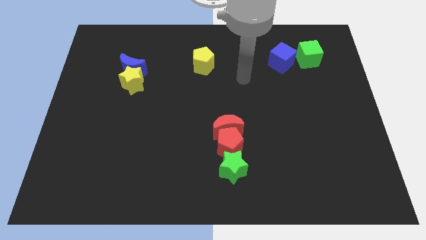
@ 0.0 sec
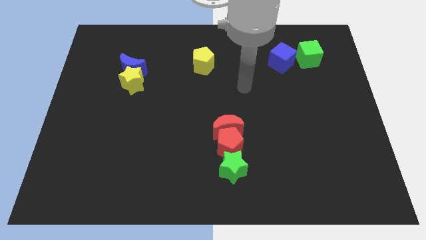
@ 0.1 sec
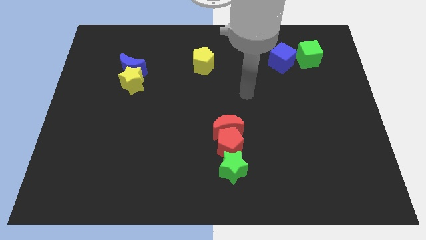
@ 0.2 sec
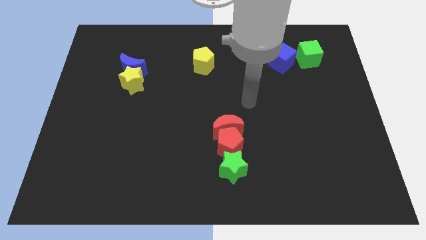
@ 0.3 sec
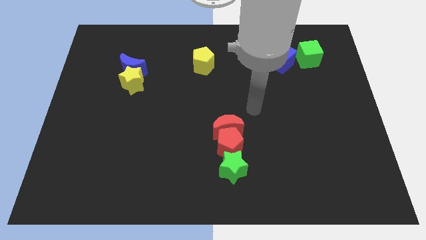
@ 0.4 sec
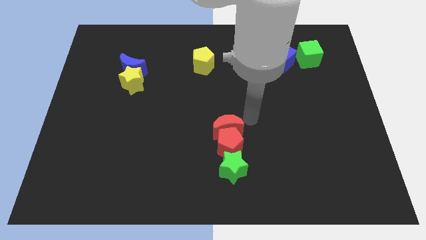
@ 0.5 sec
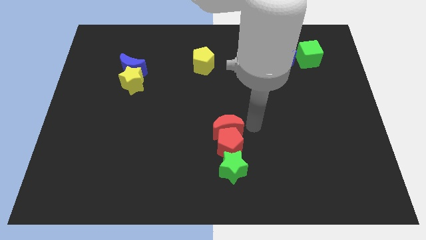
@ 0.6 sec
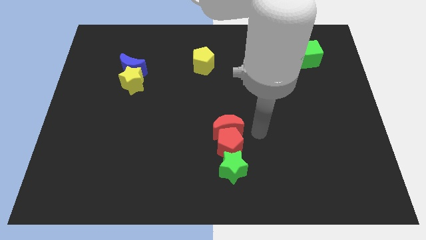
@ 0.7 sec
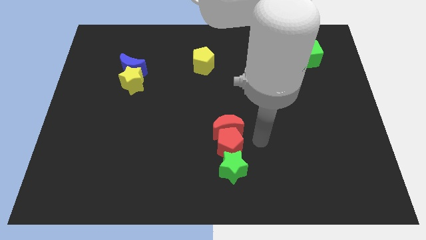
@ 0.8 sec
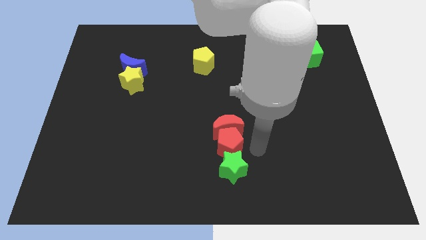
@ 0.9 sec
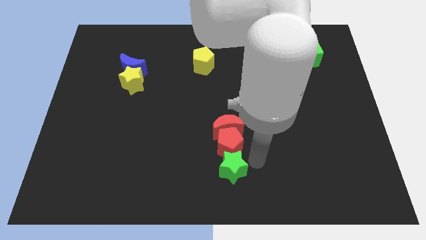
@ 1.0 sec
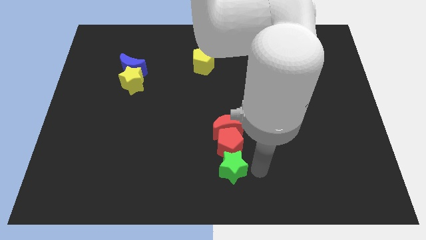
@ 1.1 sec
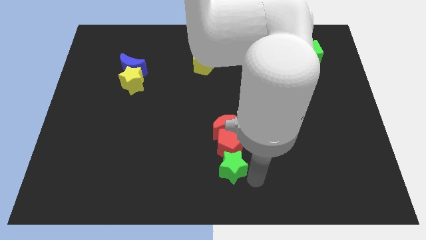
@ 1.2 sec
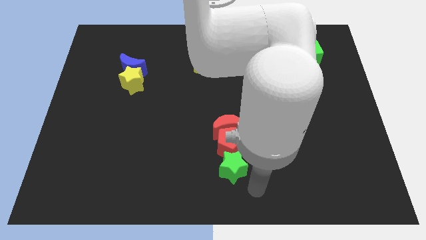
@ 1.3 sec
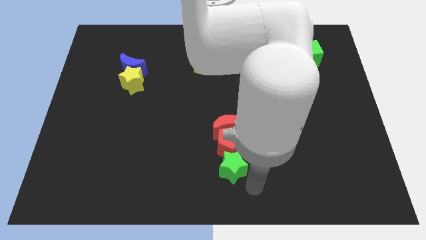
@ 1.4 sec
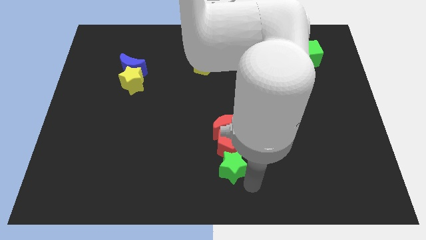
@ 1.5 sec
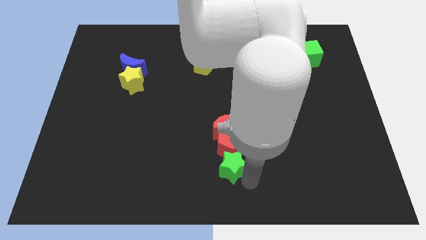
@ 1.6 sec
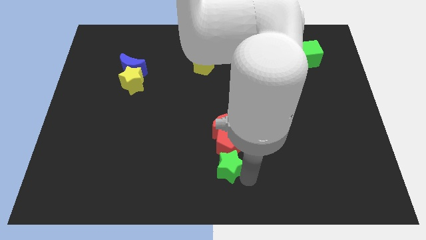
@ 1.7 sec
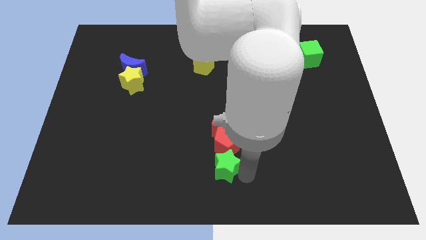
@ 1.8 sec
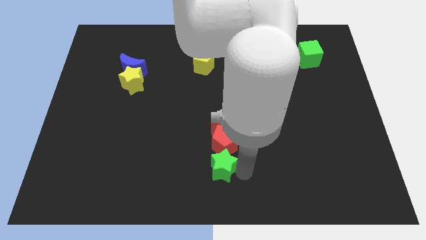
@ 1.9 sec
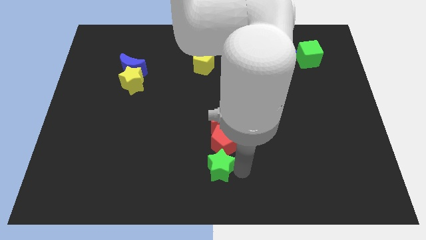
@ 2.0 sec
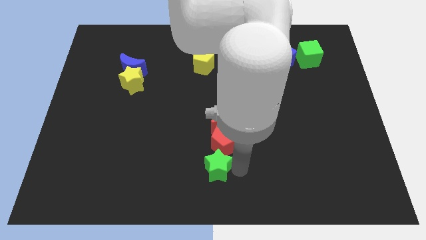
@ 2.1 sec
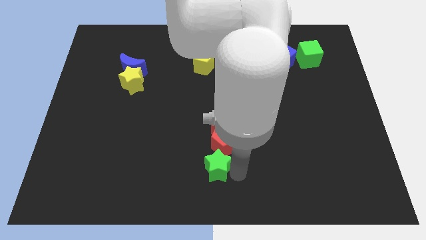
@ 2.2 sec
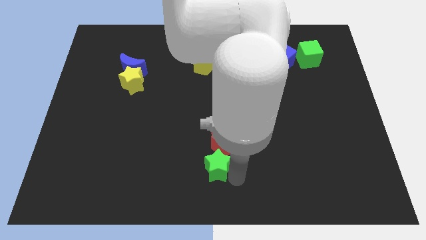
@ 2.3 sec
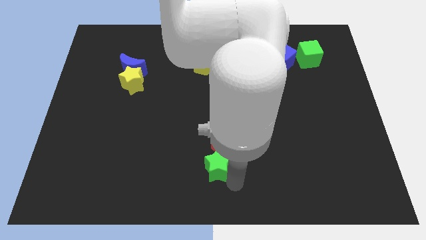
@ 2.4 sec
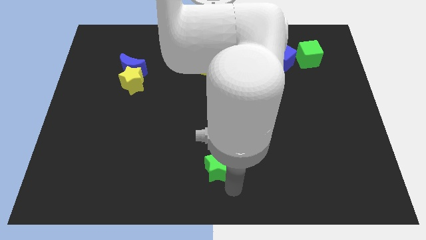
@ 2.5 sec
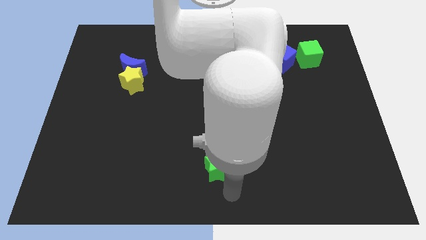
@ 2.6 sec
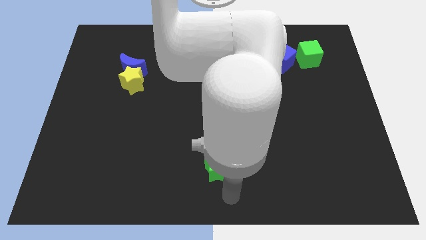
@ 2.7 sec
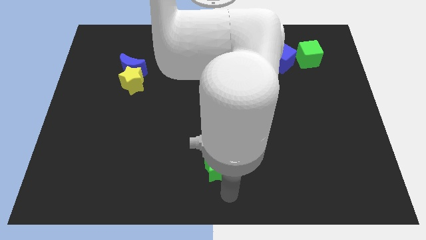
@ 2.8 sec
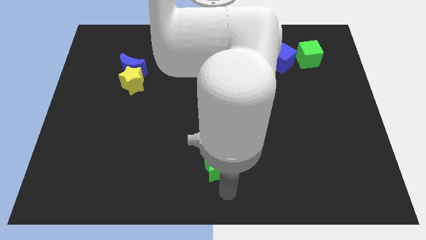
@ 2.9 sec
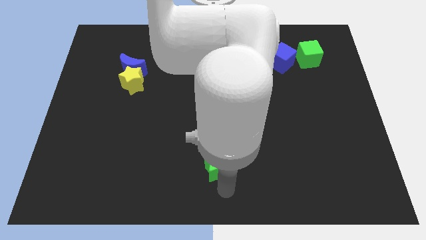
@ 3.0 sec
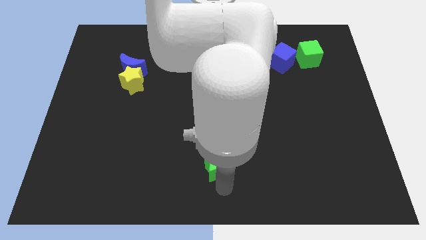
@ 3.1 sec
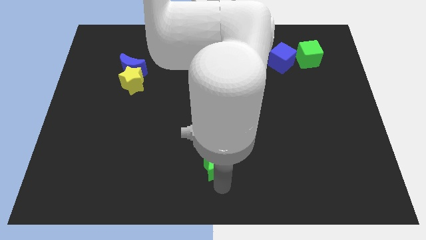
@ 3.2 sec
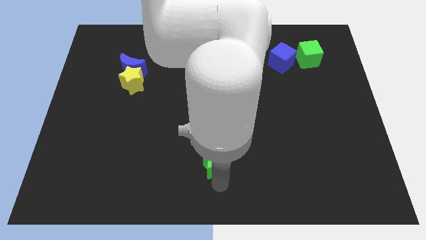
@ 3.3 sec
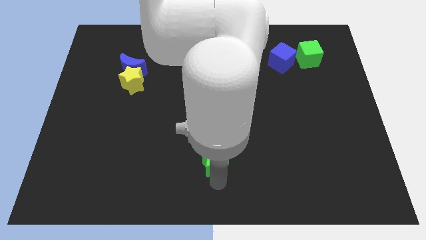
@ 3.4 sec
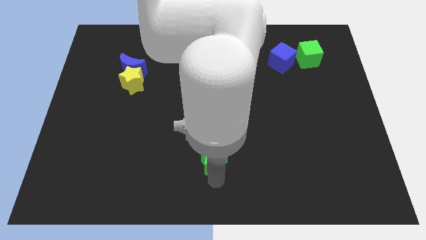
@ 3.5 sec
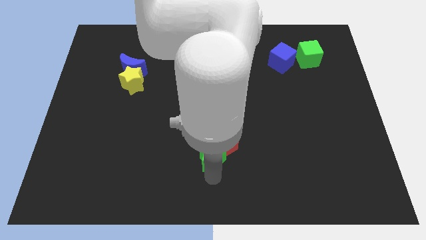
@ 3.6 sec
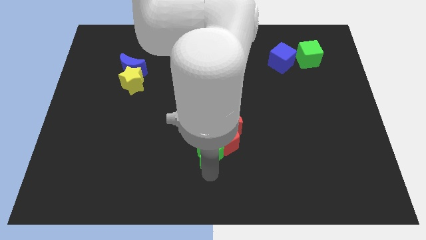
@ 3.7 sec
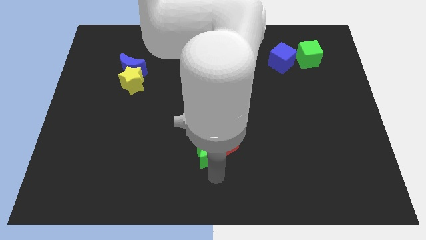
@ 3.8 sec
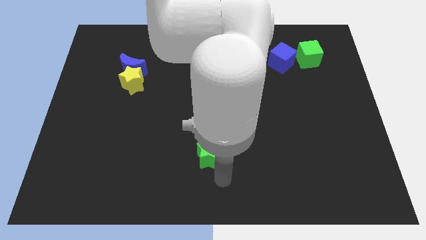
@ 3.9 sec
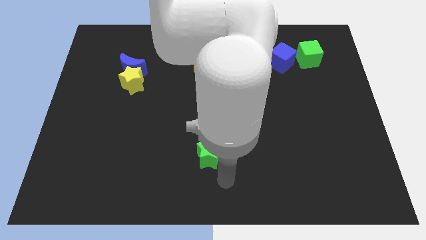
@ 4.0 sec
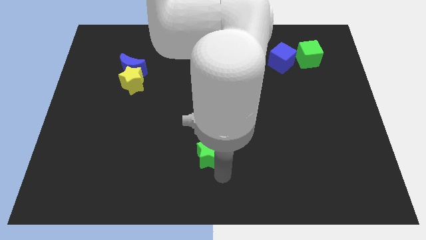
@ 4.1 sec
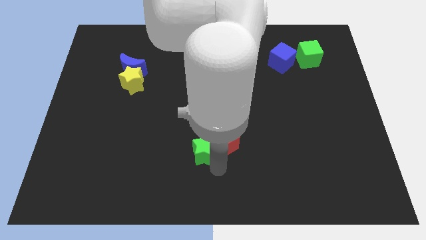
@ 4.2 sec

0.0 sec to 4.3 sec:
move the green star a little bit diagonally upwards and left

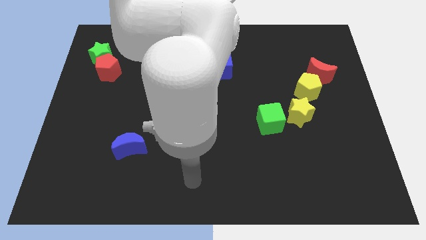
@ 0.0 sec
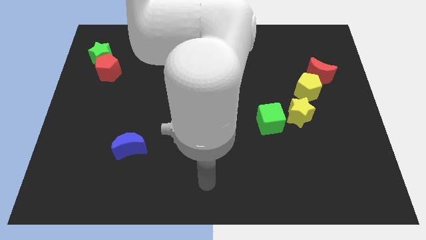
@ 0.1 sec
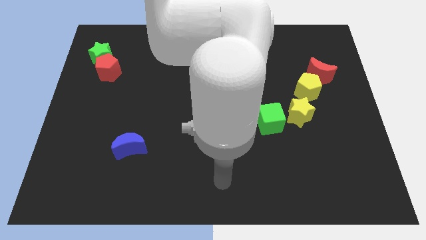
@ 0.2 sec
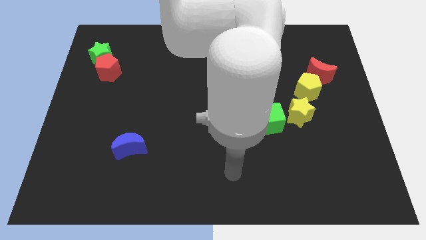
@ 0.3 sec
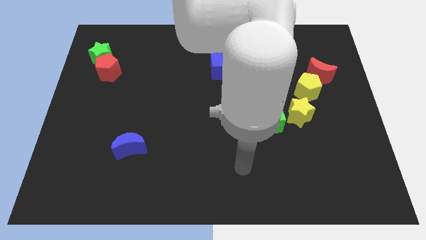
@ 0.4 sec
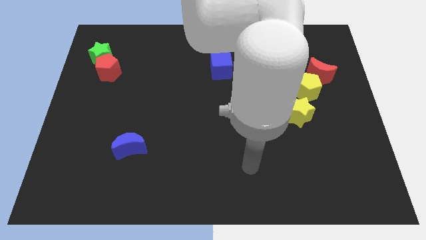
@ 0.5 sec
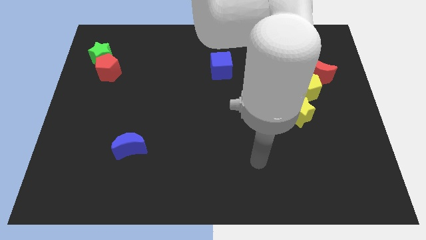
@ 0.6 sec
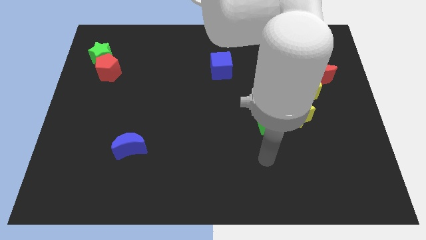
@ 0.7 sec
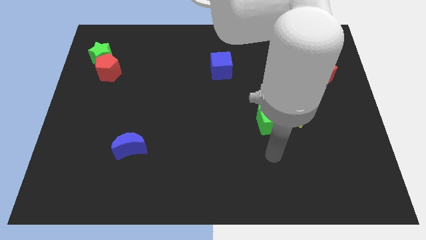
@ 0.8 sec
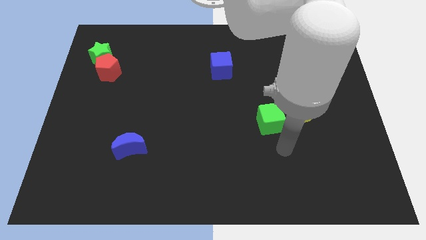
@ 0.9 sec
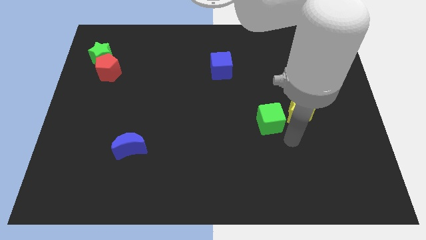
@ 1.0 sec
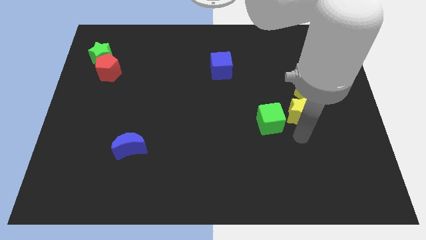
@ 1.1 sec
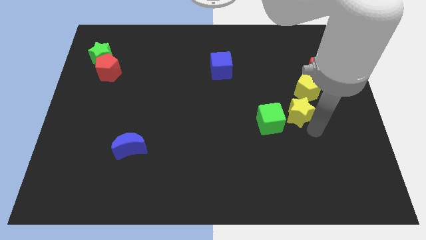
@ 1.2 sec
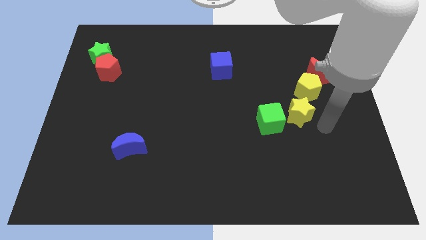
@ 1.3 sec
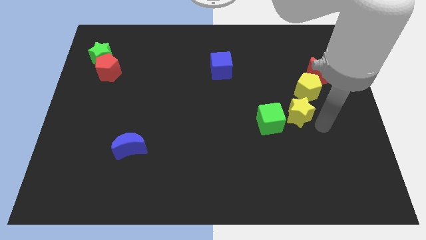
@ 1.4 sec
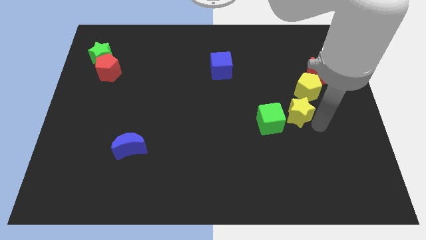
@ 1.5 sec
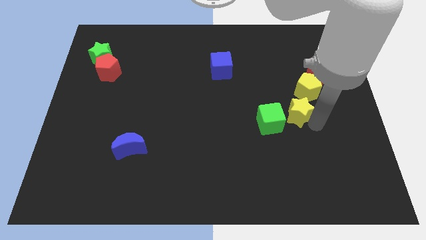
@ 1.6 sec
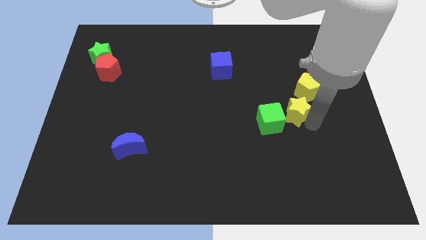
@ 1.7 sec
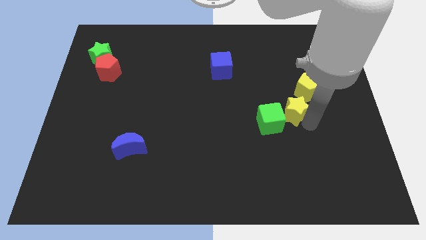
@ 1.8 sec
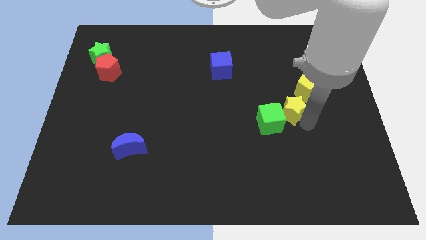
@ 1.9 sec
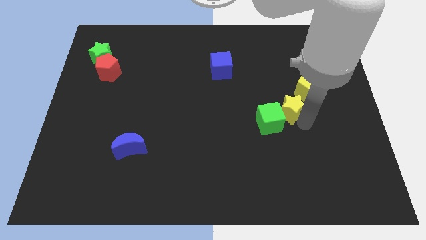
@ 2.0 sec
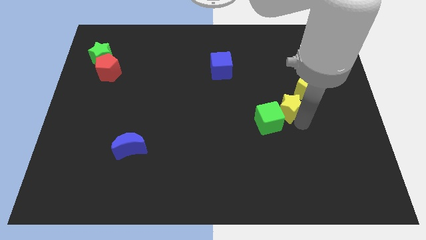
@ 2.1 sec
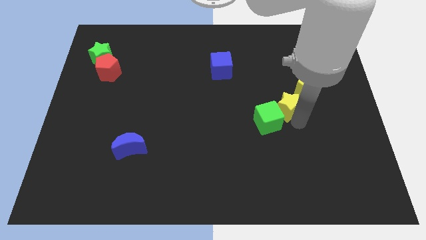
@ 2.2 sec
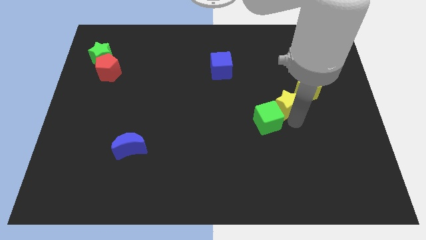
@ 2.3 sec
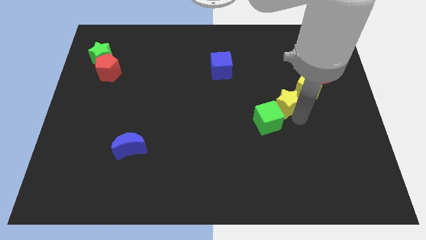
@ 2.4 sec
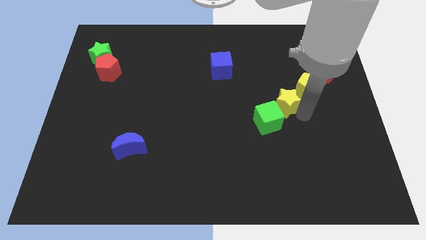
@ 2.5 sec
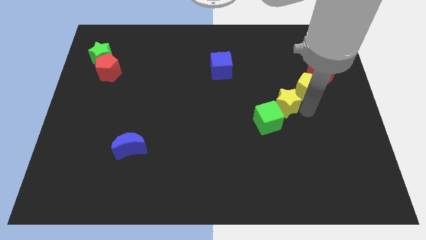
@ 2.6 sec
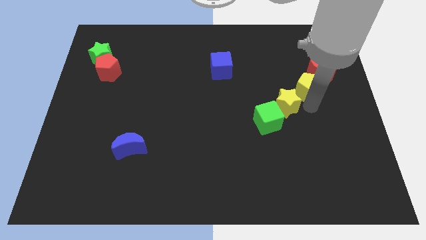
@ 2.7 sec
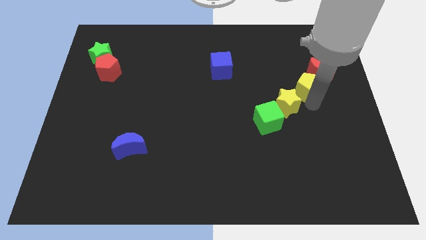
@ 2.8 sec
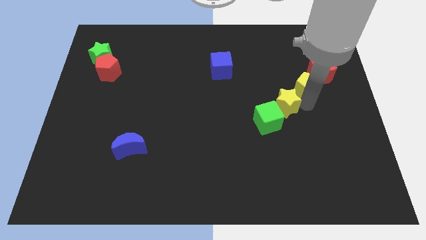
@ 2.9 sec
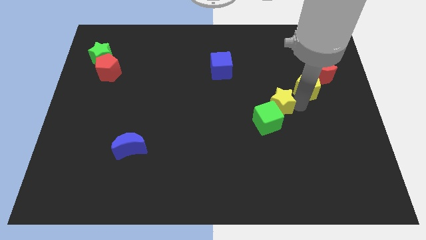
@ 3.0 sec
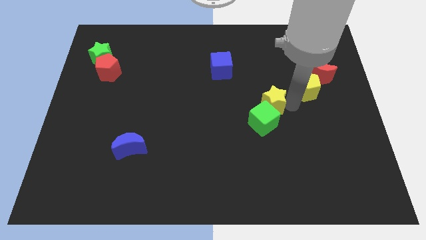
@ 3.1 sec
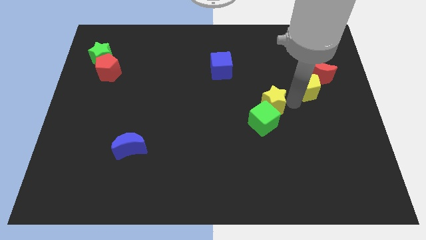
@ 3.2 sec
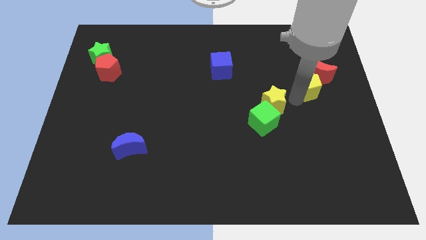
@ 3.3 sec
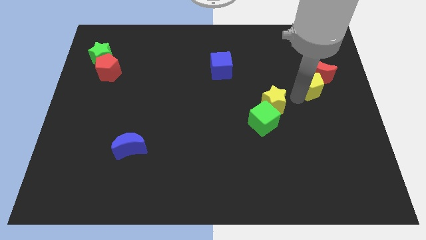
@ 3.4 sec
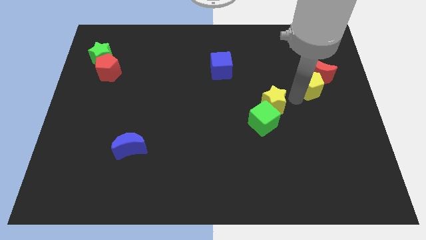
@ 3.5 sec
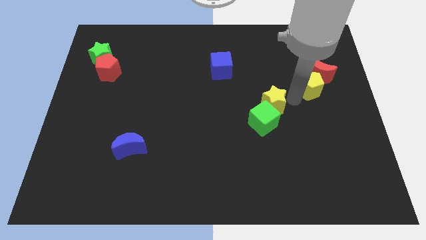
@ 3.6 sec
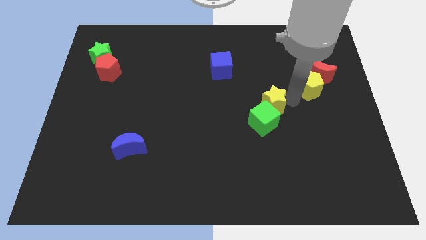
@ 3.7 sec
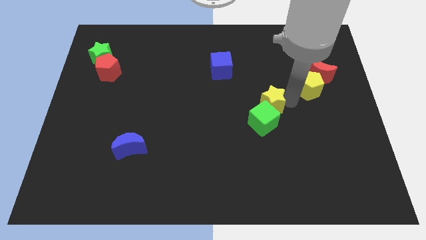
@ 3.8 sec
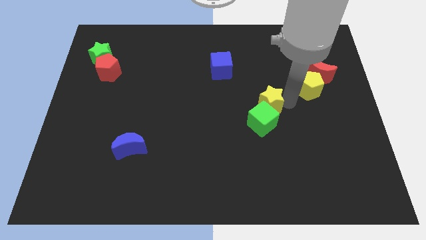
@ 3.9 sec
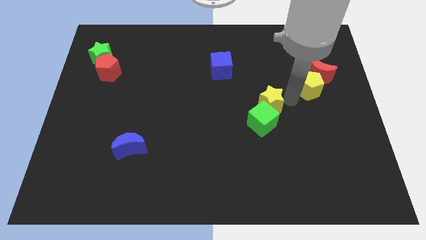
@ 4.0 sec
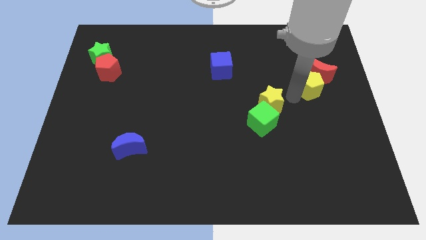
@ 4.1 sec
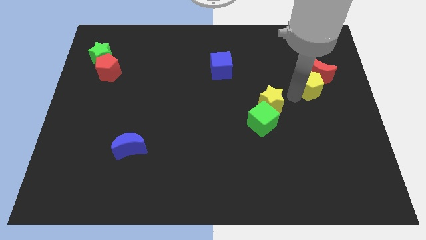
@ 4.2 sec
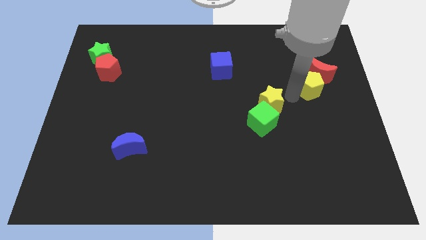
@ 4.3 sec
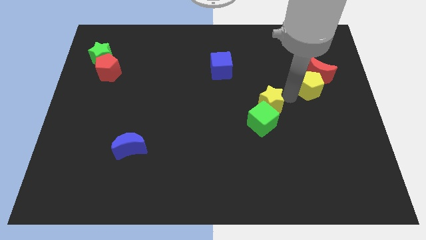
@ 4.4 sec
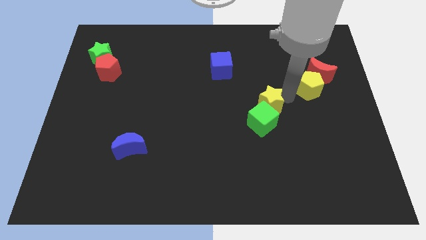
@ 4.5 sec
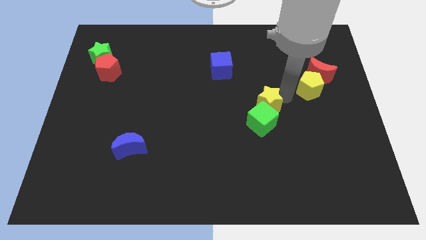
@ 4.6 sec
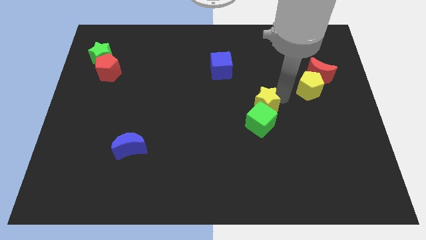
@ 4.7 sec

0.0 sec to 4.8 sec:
move the yellow star somewhat left
